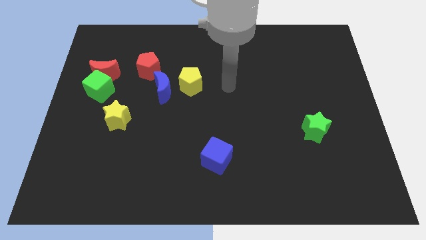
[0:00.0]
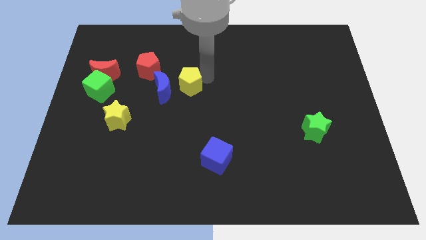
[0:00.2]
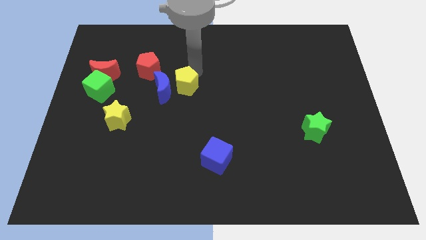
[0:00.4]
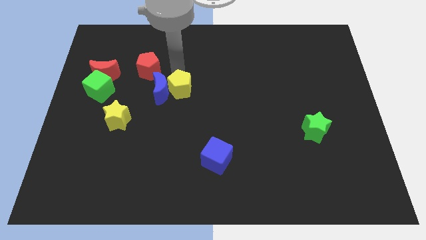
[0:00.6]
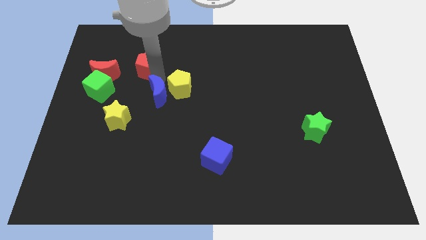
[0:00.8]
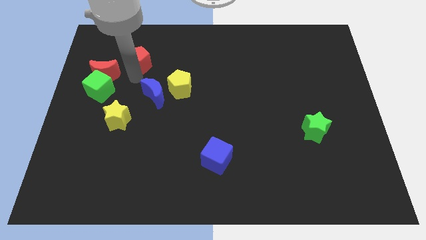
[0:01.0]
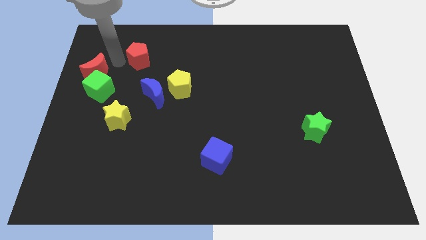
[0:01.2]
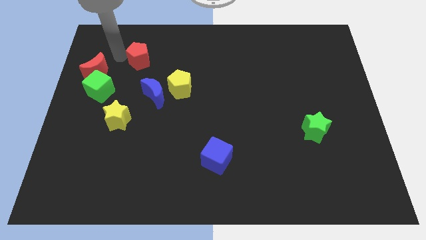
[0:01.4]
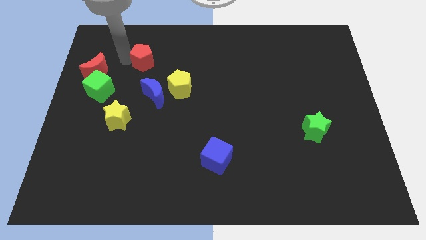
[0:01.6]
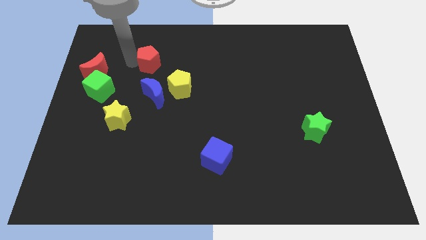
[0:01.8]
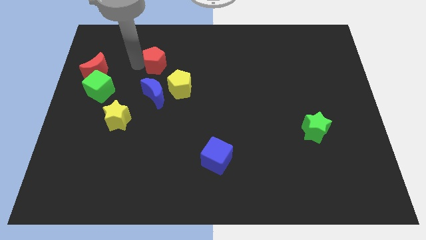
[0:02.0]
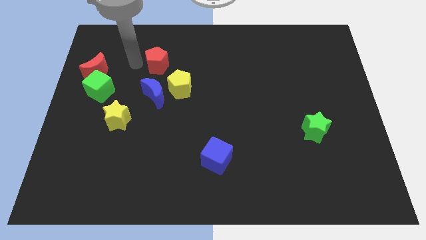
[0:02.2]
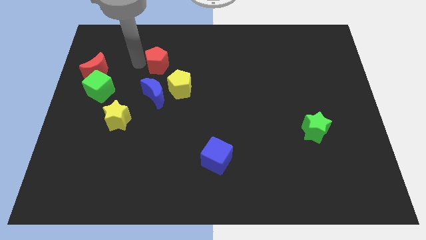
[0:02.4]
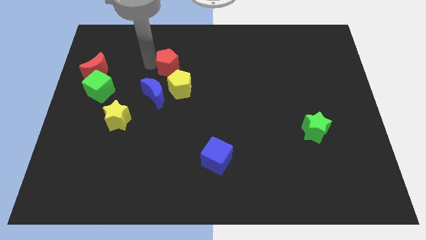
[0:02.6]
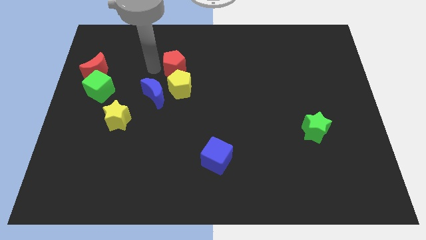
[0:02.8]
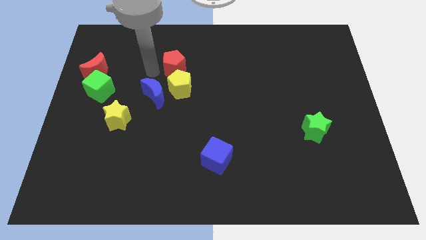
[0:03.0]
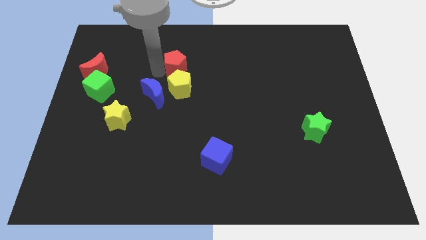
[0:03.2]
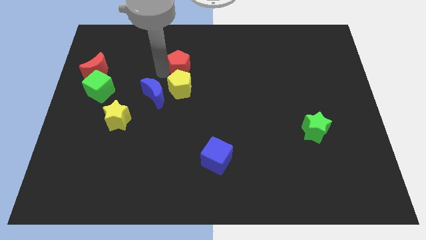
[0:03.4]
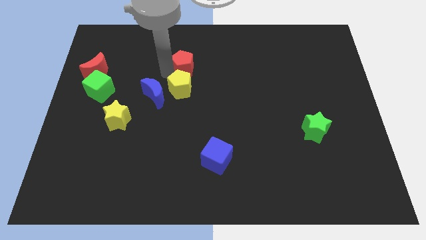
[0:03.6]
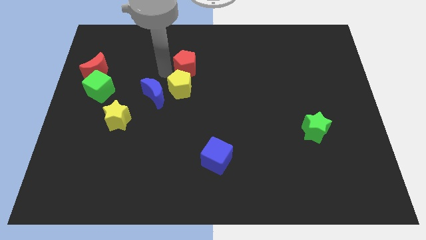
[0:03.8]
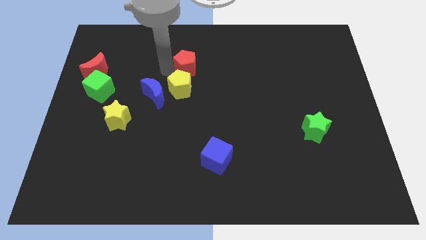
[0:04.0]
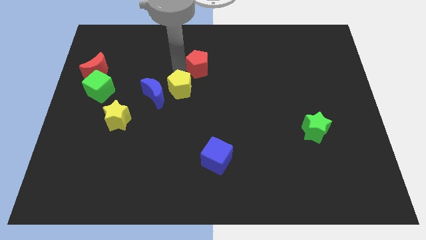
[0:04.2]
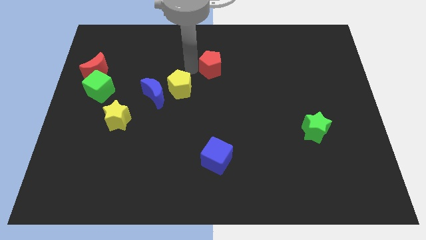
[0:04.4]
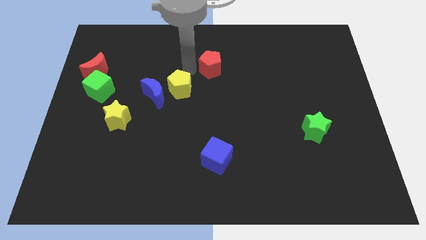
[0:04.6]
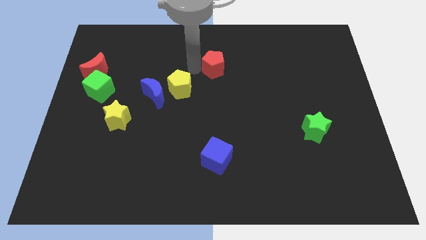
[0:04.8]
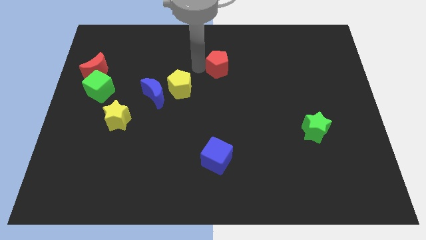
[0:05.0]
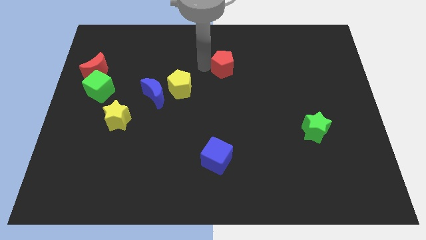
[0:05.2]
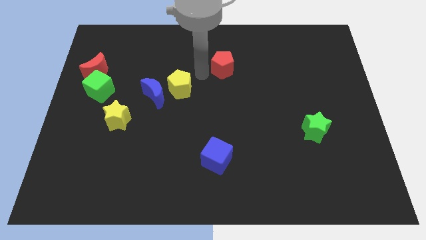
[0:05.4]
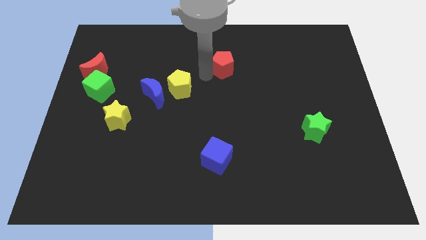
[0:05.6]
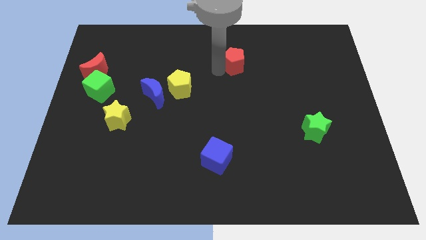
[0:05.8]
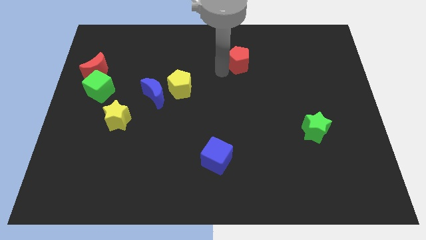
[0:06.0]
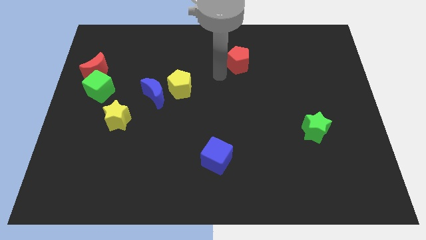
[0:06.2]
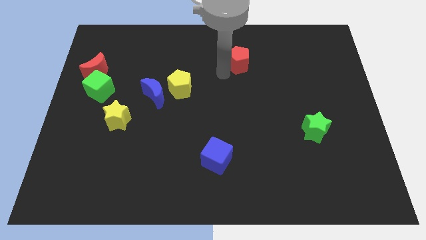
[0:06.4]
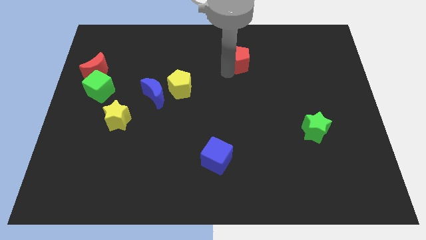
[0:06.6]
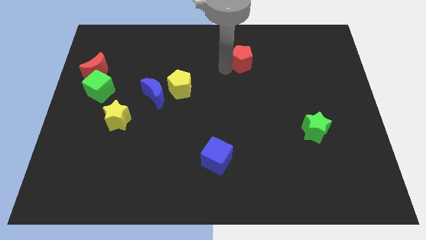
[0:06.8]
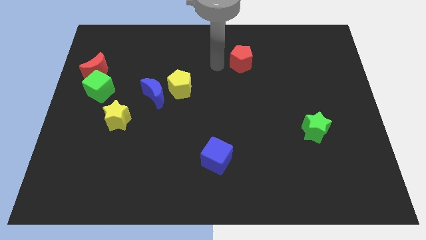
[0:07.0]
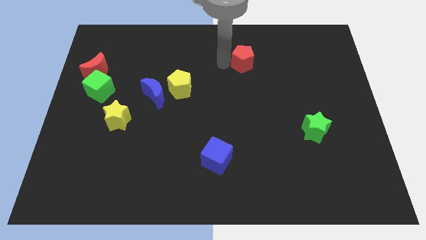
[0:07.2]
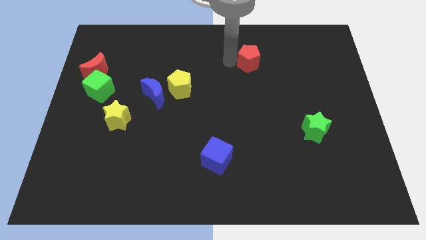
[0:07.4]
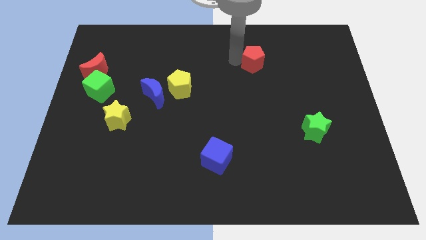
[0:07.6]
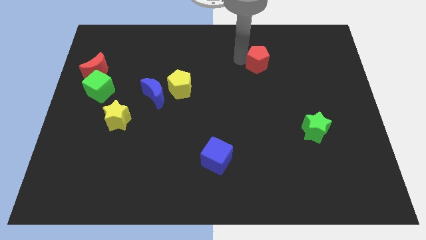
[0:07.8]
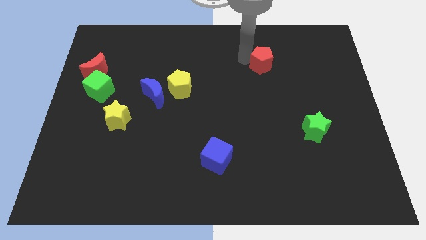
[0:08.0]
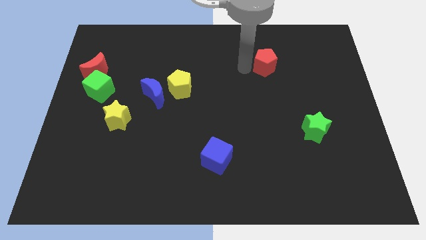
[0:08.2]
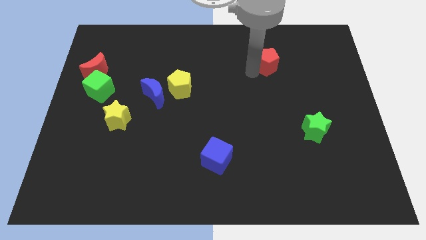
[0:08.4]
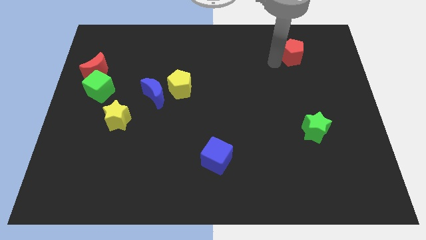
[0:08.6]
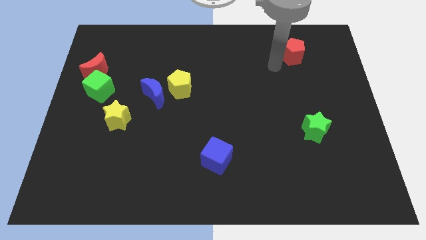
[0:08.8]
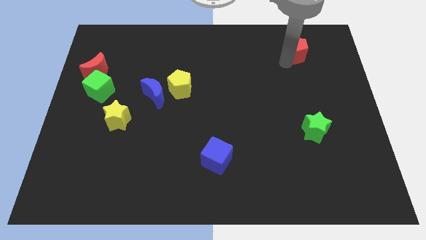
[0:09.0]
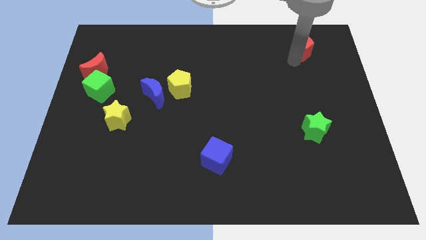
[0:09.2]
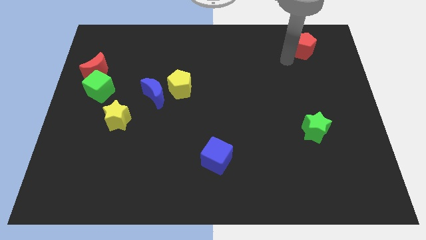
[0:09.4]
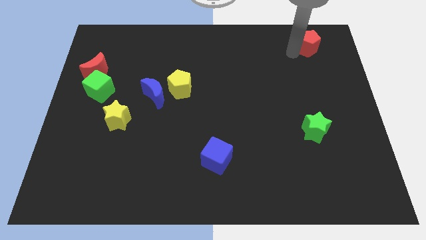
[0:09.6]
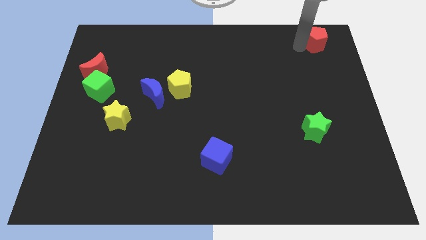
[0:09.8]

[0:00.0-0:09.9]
push the red pentagon to the upper right corner

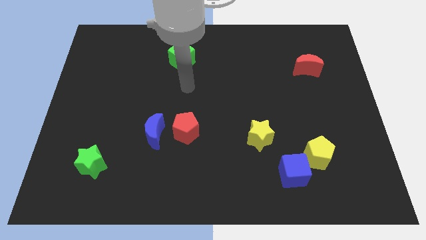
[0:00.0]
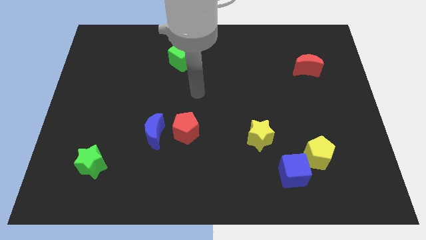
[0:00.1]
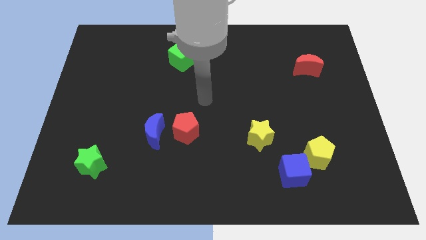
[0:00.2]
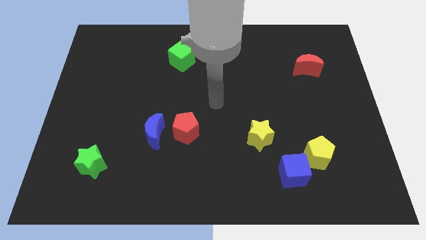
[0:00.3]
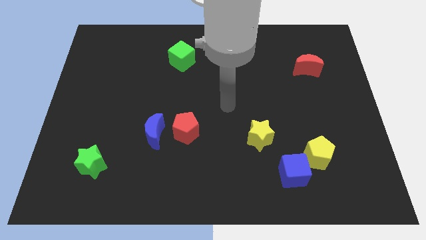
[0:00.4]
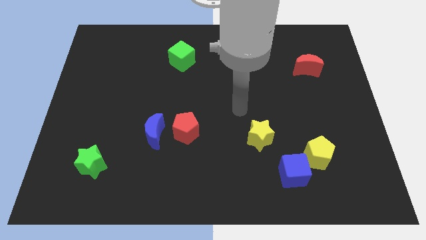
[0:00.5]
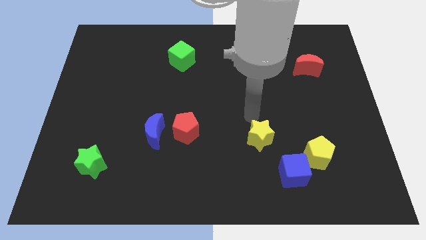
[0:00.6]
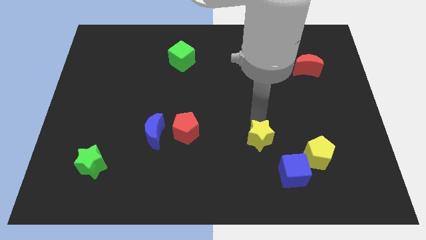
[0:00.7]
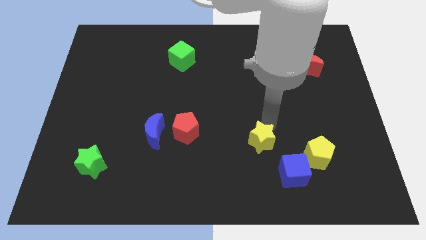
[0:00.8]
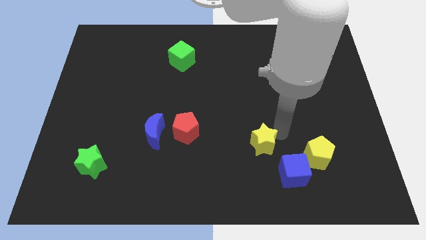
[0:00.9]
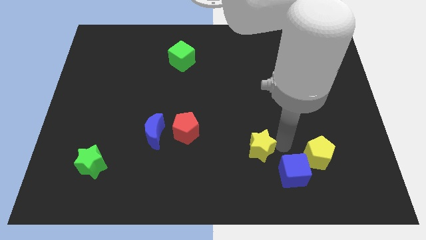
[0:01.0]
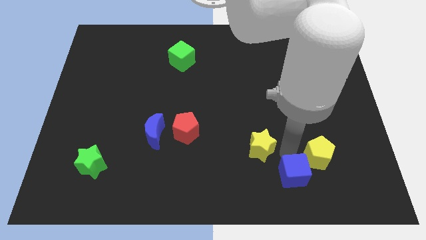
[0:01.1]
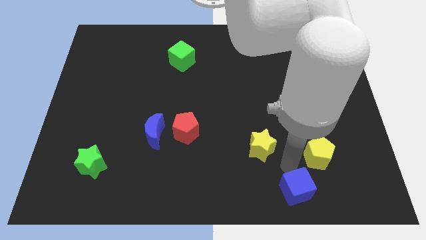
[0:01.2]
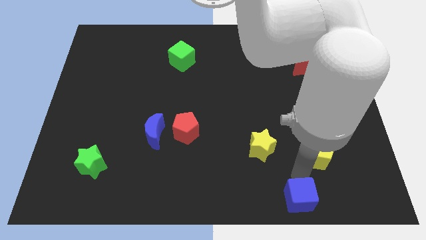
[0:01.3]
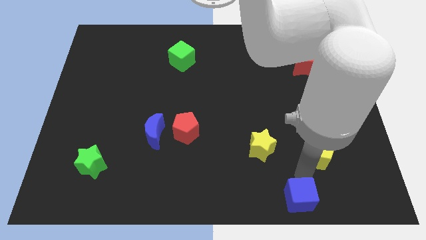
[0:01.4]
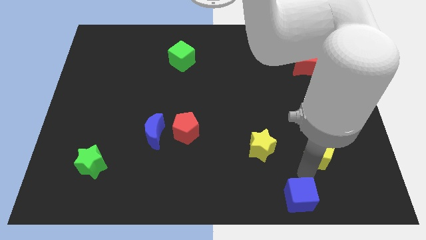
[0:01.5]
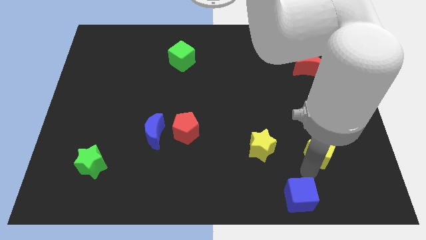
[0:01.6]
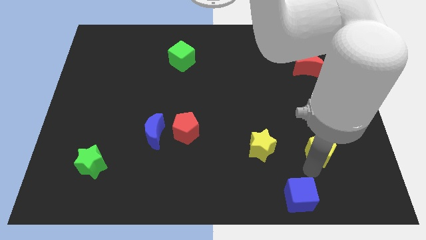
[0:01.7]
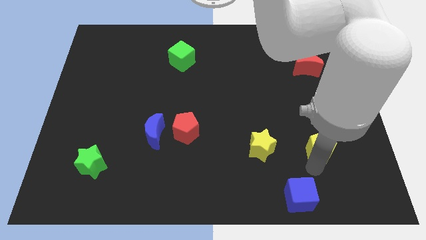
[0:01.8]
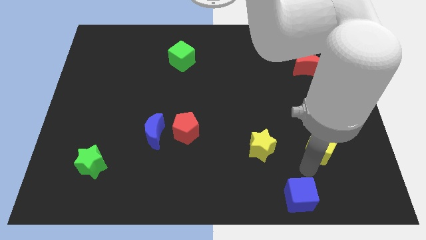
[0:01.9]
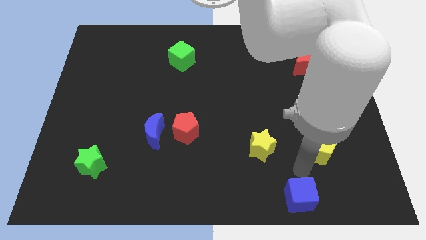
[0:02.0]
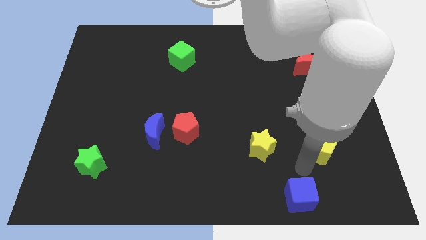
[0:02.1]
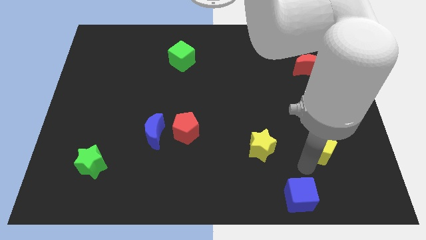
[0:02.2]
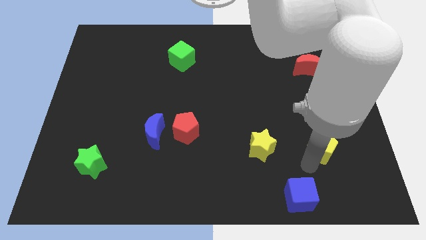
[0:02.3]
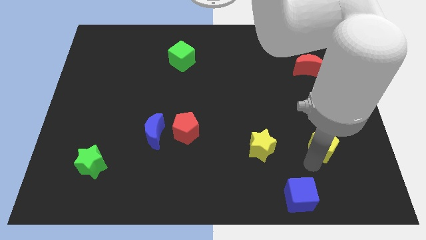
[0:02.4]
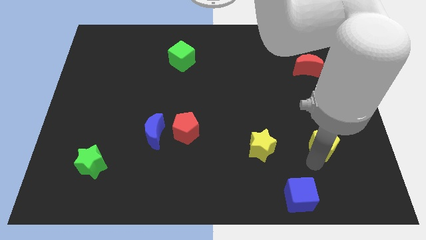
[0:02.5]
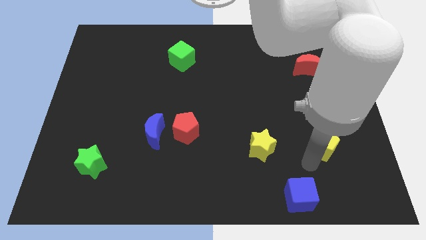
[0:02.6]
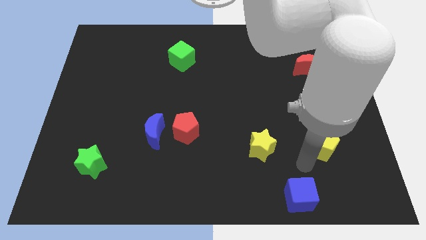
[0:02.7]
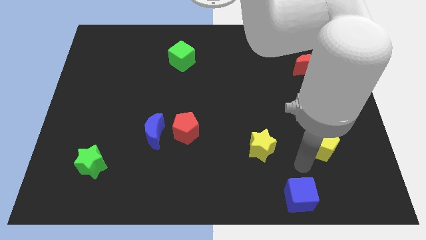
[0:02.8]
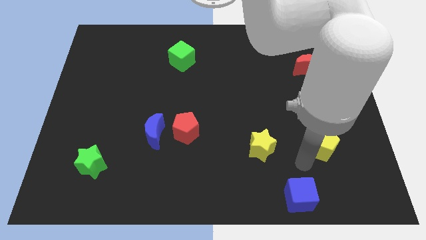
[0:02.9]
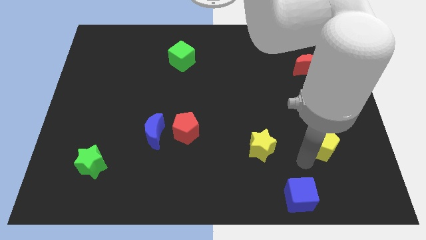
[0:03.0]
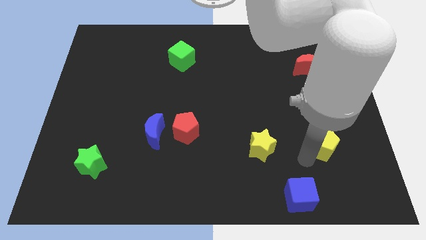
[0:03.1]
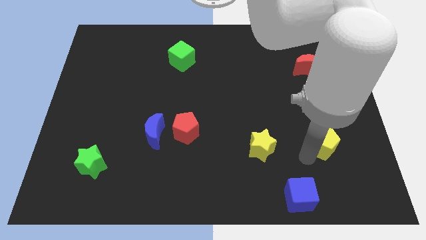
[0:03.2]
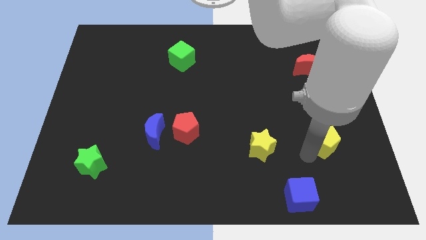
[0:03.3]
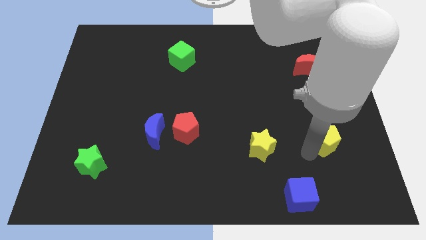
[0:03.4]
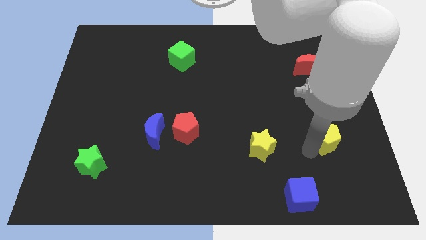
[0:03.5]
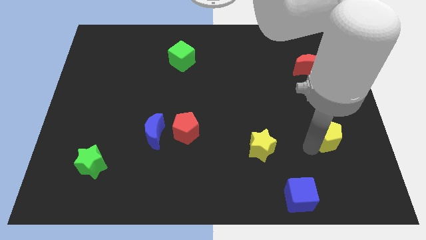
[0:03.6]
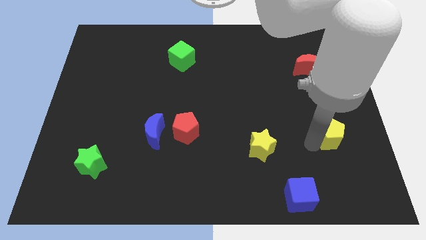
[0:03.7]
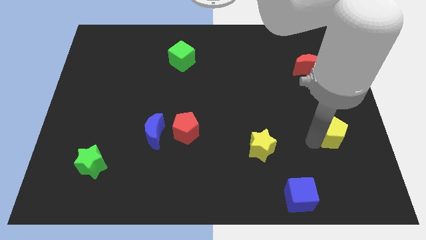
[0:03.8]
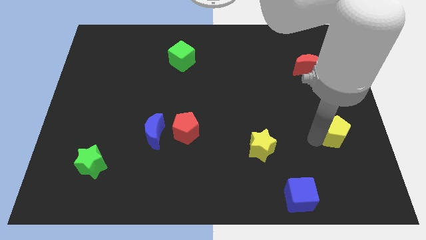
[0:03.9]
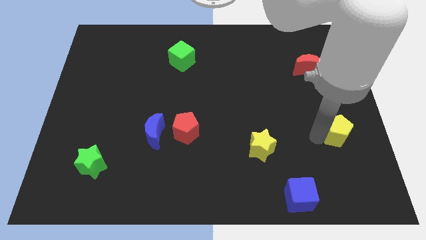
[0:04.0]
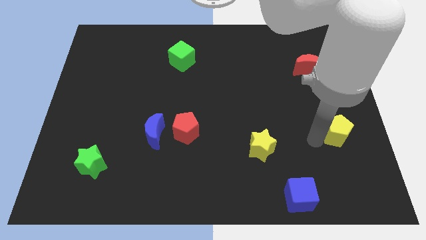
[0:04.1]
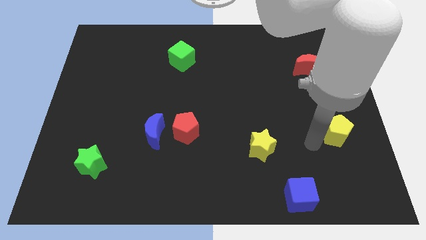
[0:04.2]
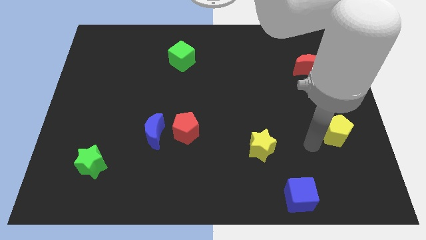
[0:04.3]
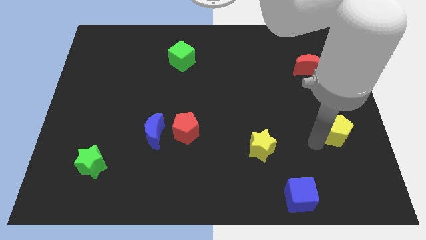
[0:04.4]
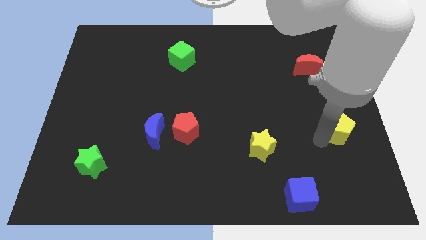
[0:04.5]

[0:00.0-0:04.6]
move the yellow pentagon to the right side of the board
